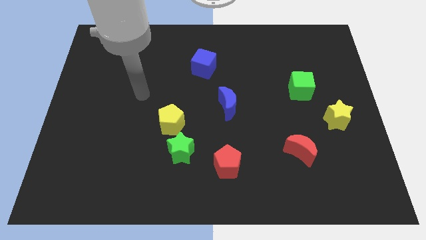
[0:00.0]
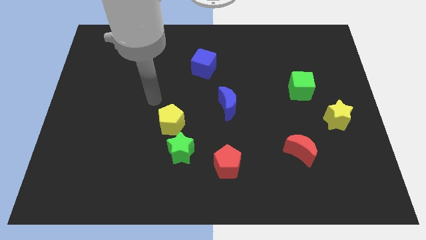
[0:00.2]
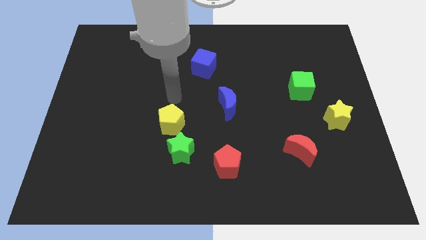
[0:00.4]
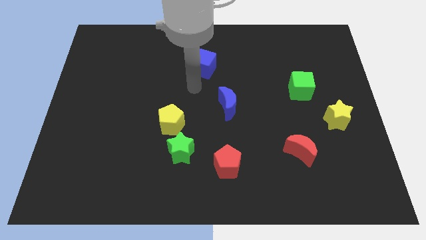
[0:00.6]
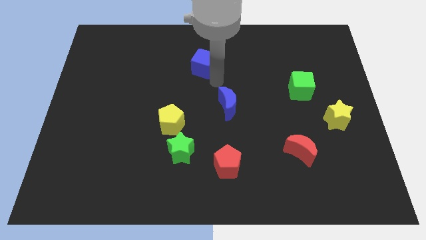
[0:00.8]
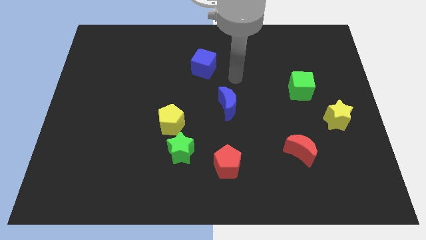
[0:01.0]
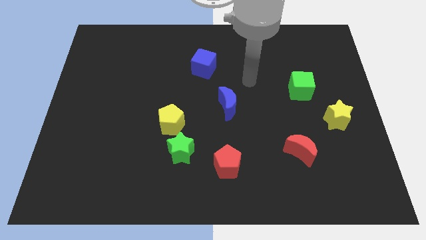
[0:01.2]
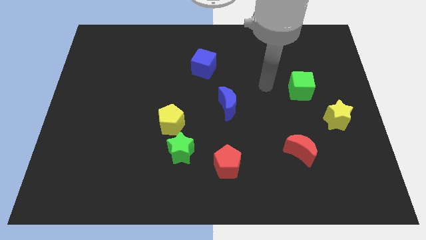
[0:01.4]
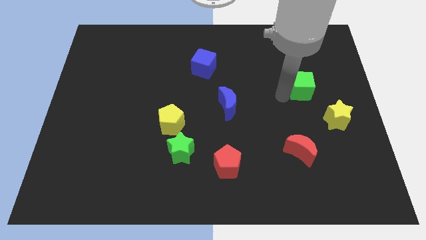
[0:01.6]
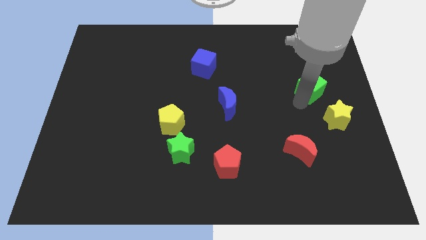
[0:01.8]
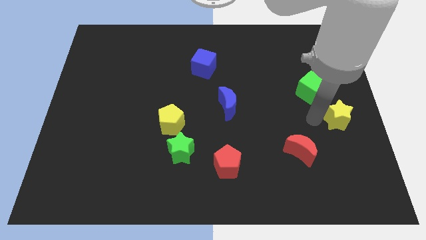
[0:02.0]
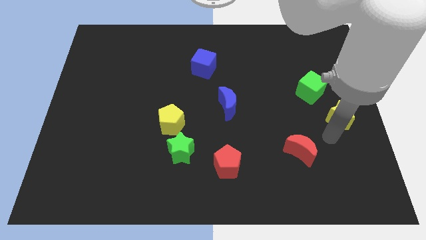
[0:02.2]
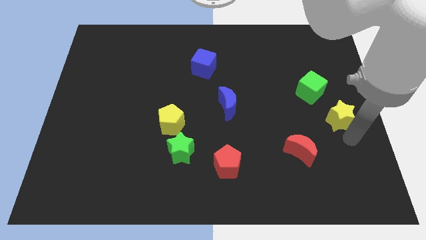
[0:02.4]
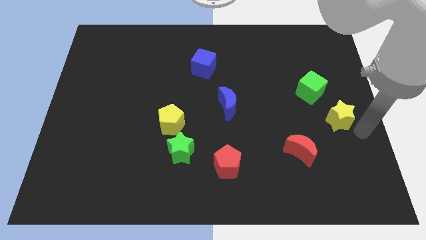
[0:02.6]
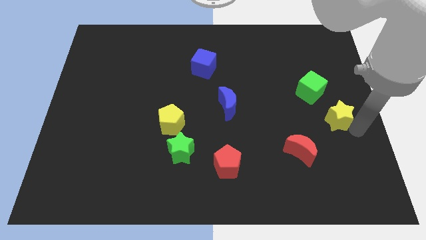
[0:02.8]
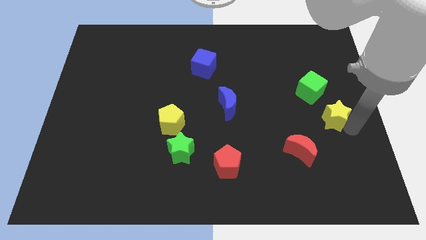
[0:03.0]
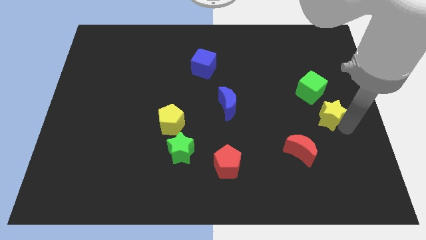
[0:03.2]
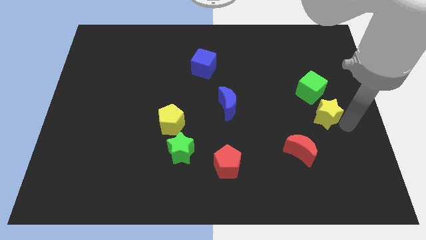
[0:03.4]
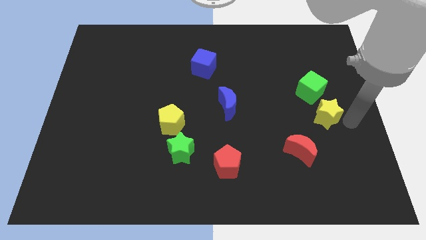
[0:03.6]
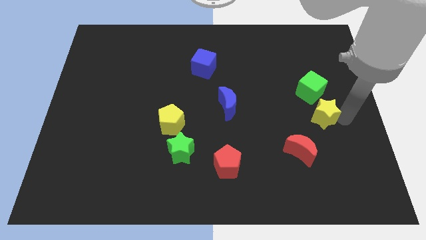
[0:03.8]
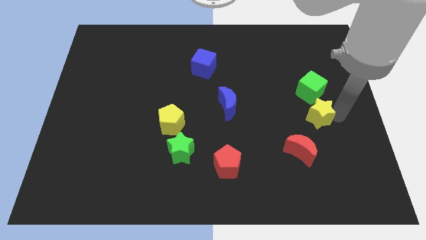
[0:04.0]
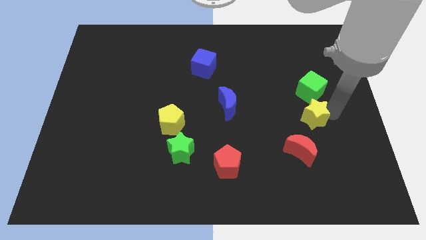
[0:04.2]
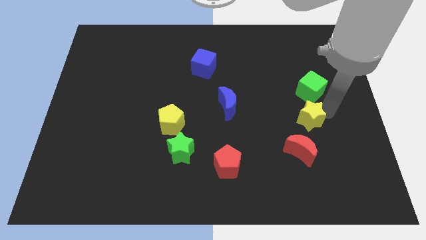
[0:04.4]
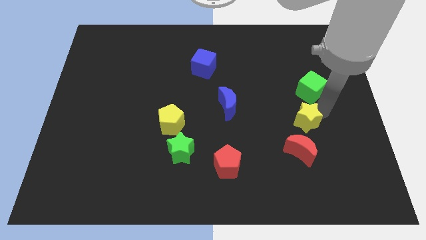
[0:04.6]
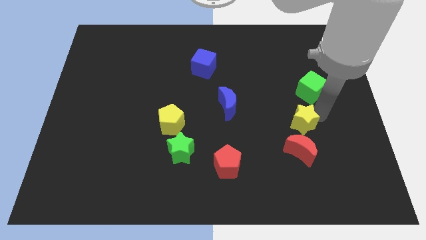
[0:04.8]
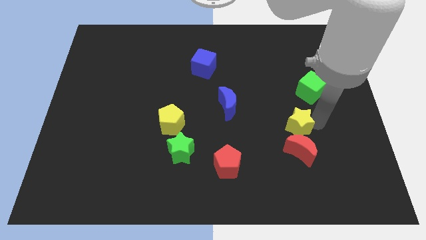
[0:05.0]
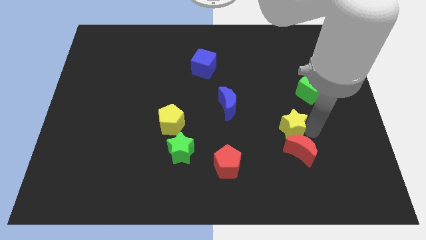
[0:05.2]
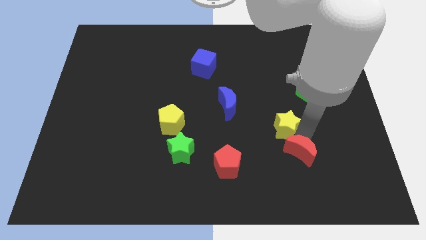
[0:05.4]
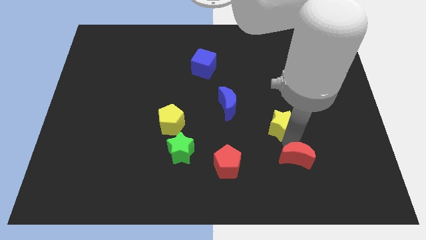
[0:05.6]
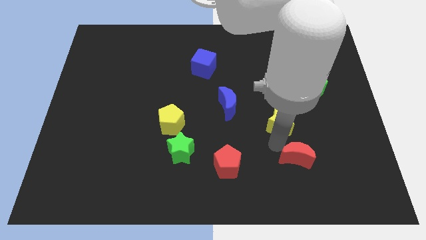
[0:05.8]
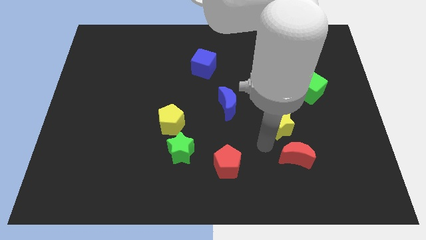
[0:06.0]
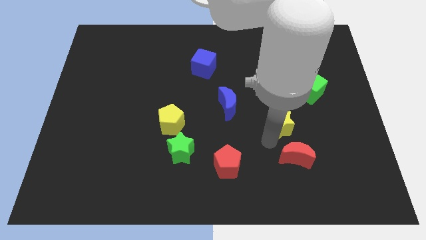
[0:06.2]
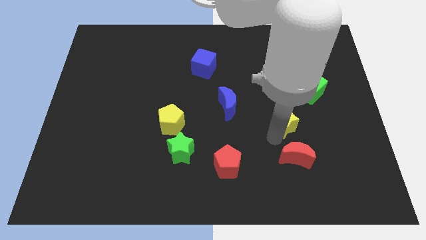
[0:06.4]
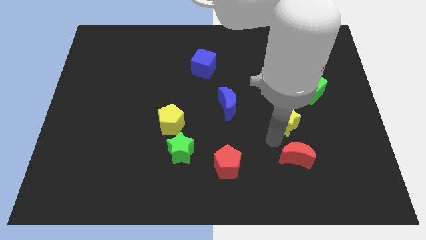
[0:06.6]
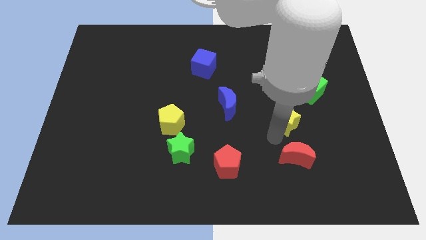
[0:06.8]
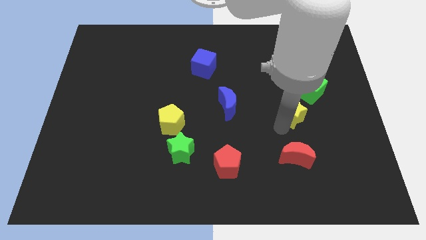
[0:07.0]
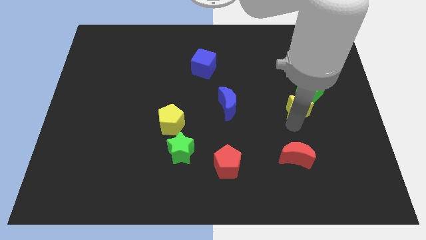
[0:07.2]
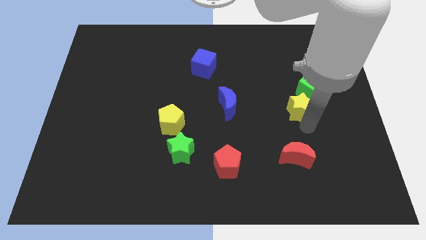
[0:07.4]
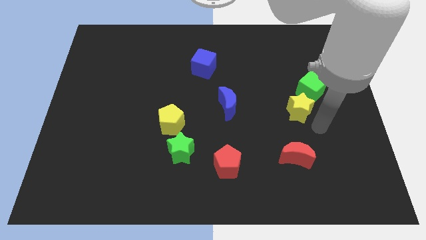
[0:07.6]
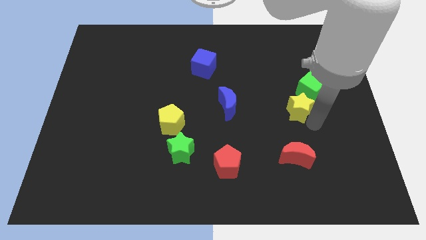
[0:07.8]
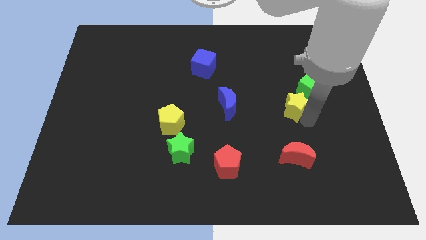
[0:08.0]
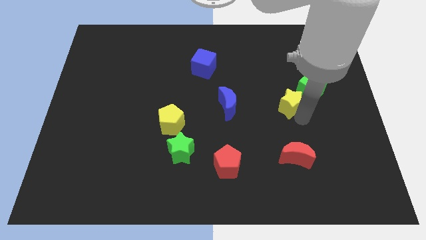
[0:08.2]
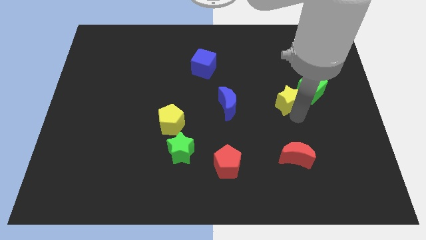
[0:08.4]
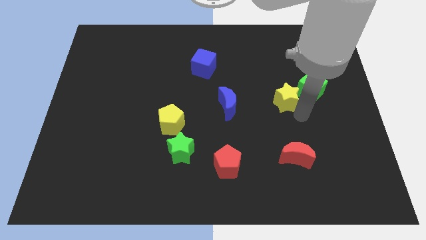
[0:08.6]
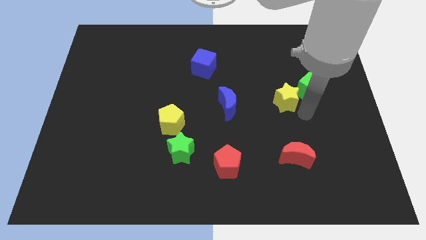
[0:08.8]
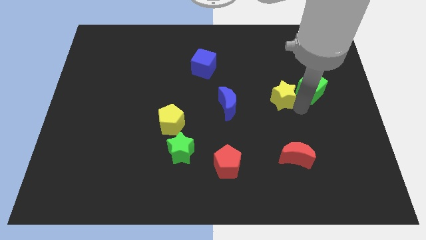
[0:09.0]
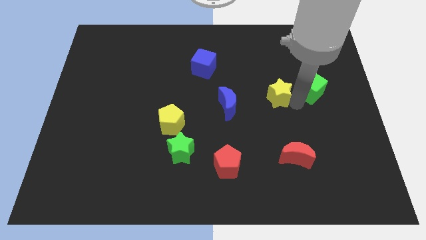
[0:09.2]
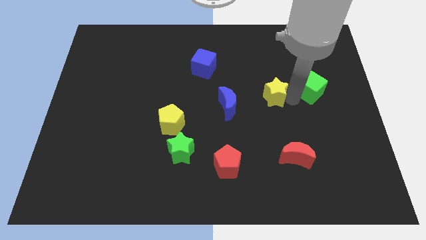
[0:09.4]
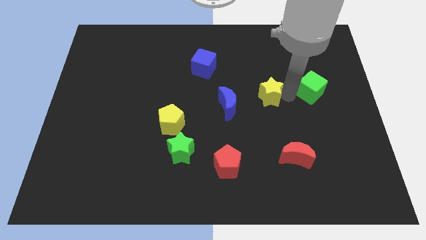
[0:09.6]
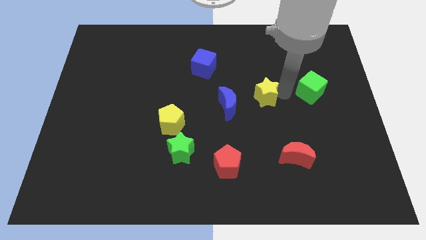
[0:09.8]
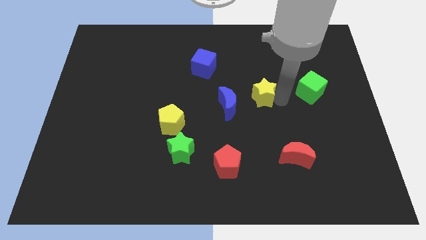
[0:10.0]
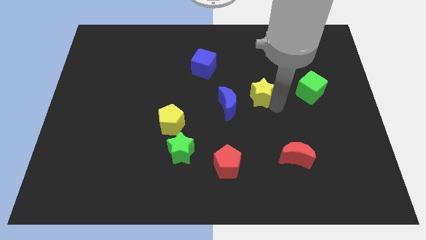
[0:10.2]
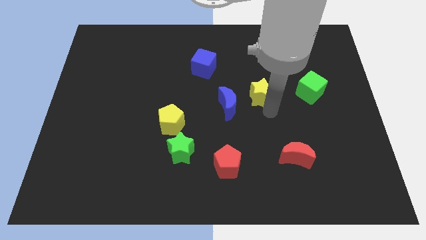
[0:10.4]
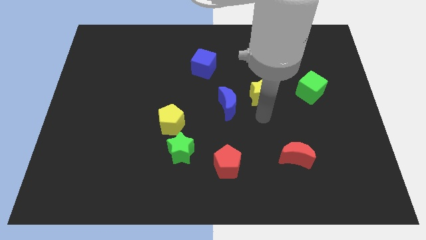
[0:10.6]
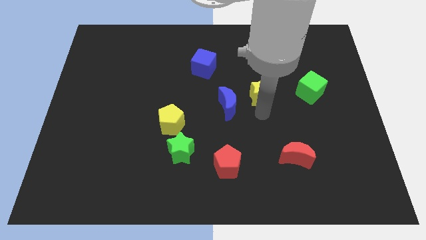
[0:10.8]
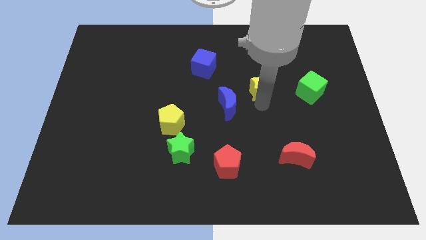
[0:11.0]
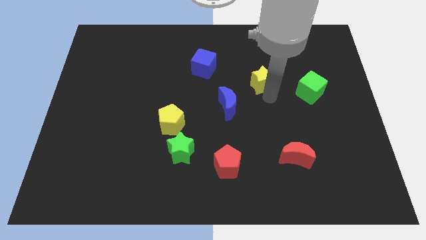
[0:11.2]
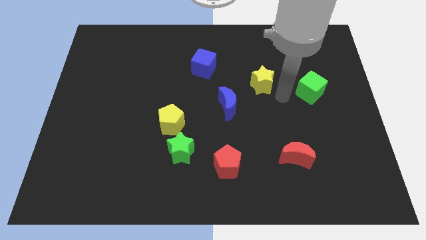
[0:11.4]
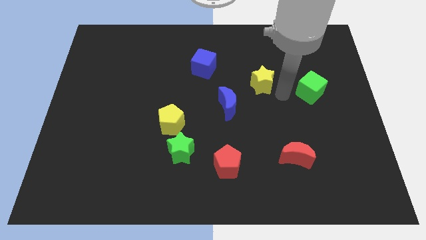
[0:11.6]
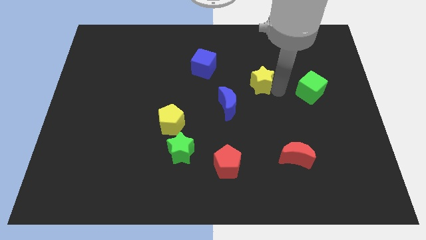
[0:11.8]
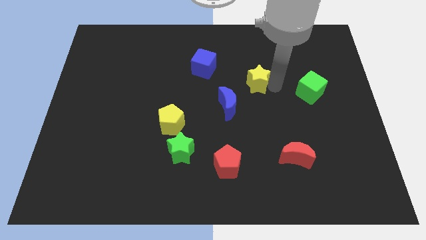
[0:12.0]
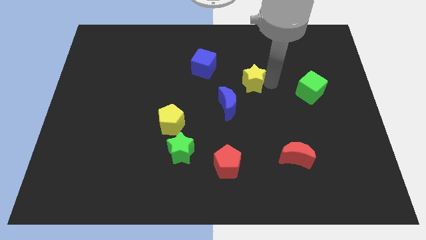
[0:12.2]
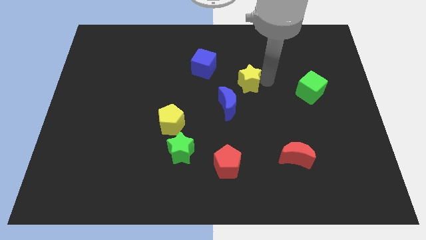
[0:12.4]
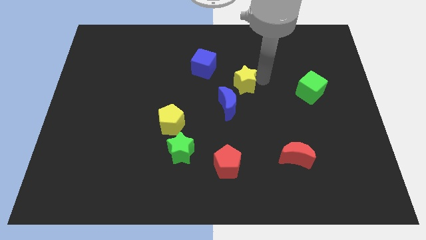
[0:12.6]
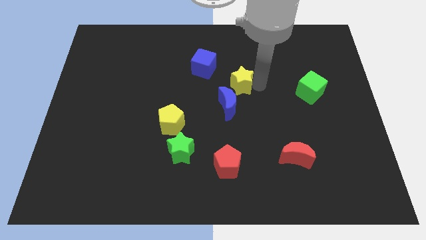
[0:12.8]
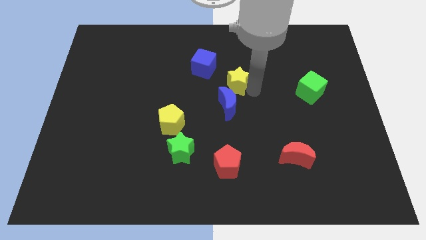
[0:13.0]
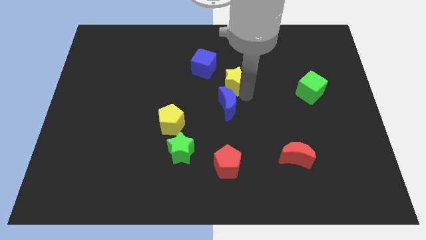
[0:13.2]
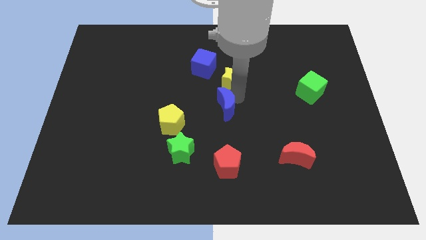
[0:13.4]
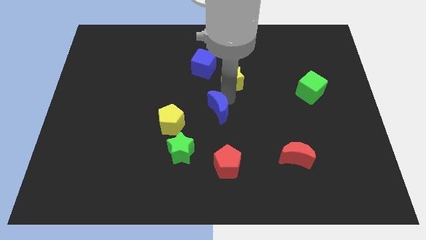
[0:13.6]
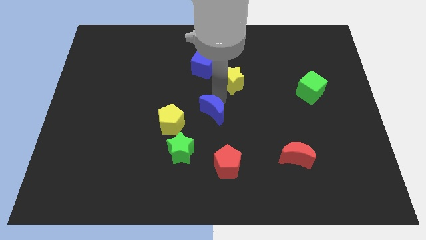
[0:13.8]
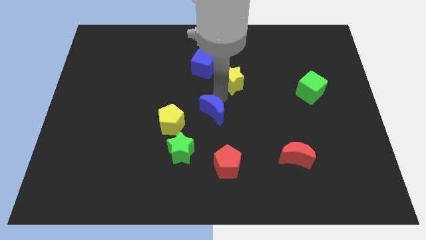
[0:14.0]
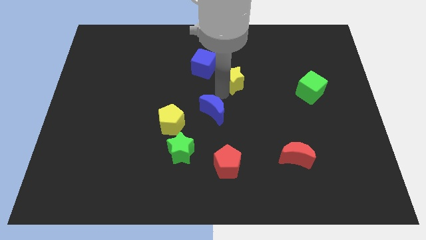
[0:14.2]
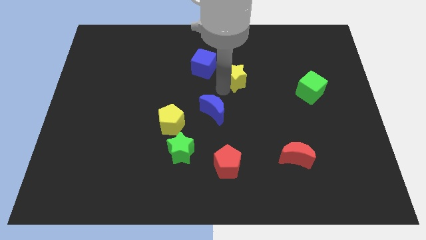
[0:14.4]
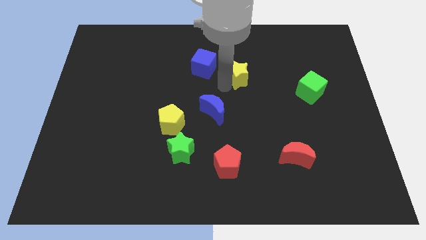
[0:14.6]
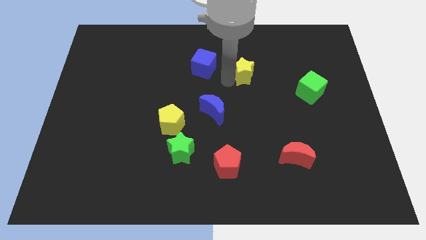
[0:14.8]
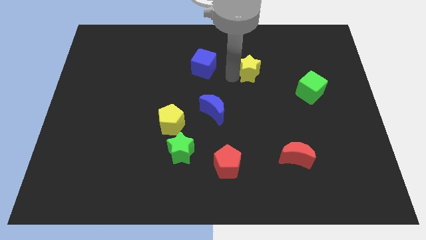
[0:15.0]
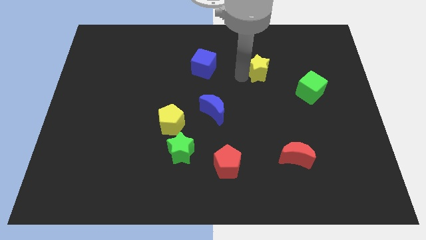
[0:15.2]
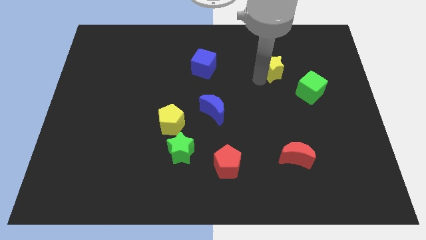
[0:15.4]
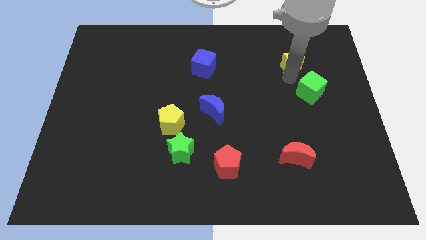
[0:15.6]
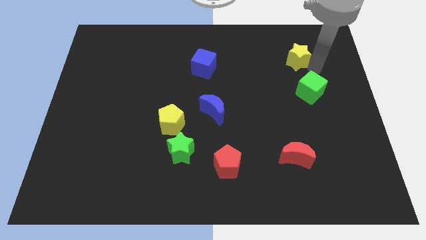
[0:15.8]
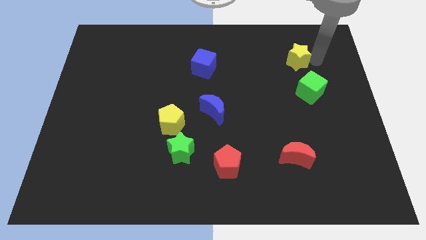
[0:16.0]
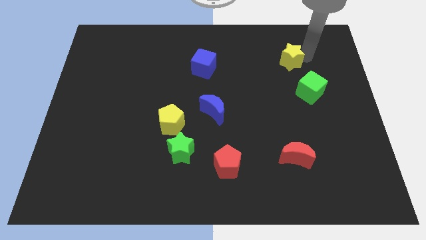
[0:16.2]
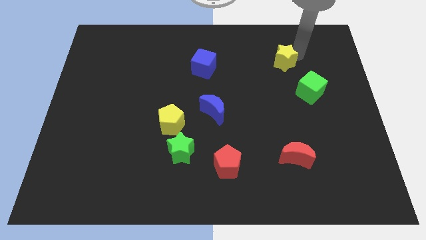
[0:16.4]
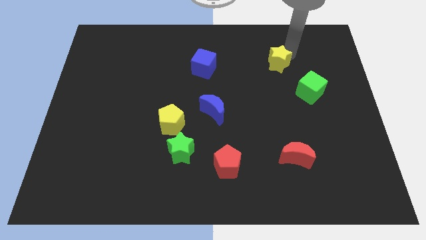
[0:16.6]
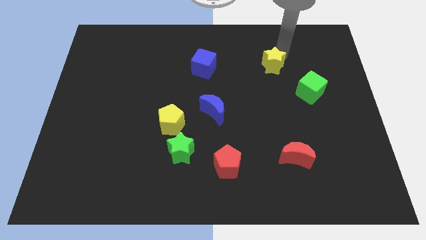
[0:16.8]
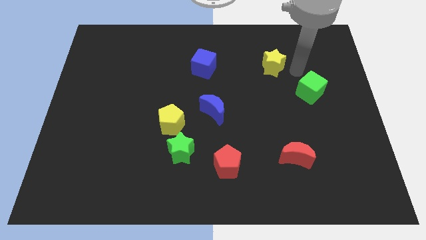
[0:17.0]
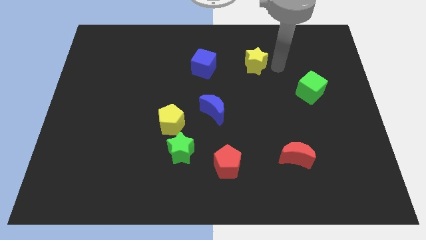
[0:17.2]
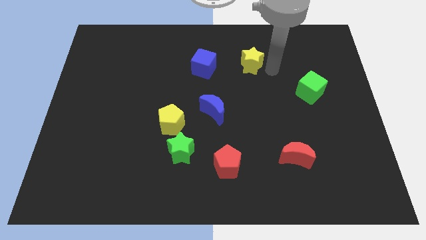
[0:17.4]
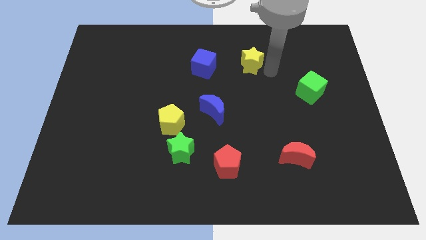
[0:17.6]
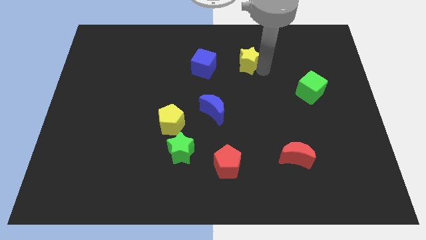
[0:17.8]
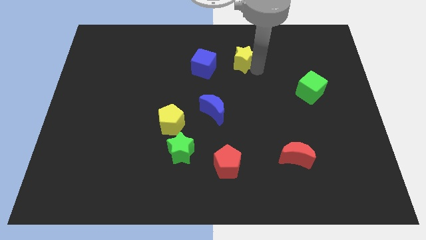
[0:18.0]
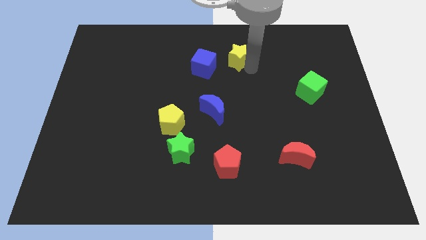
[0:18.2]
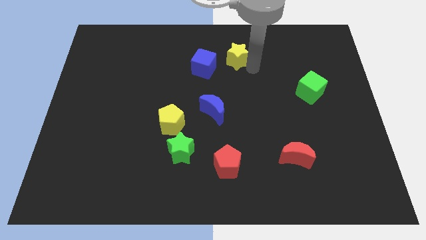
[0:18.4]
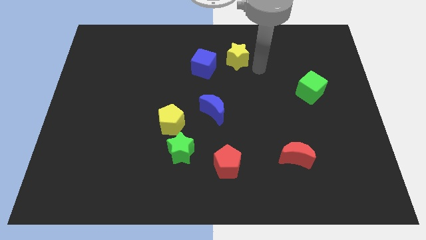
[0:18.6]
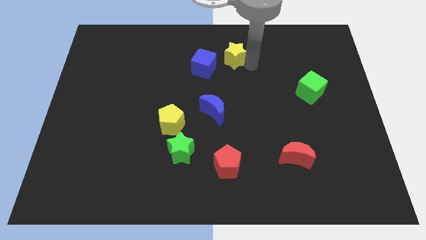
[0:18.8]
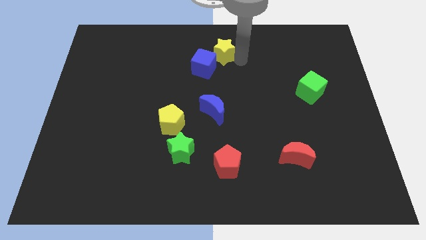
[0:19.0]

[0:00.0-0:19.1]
move the yellow star to the towards your base
